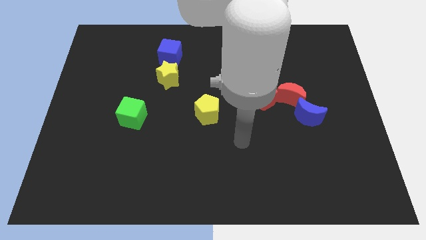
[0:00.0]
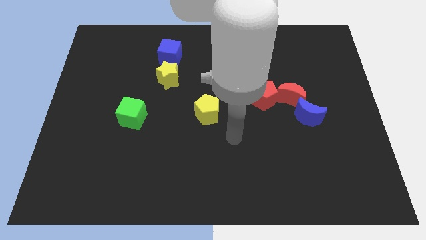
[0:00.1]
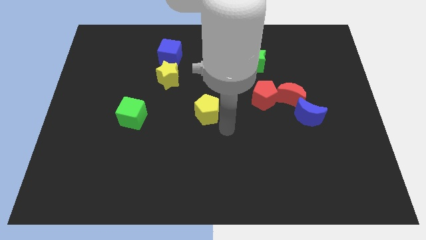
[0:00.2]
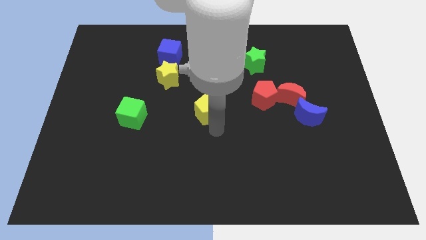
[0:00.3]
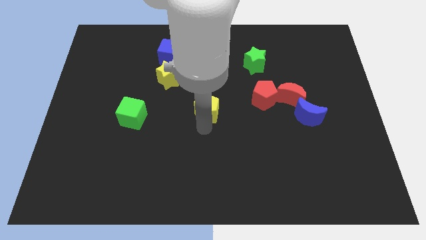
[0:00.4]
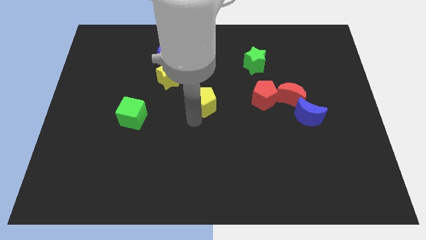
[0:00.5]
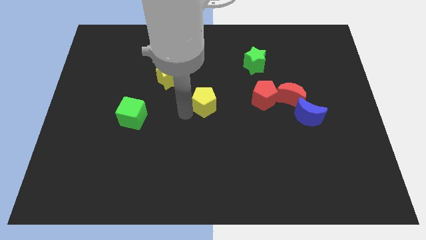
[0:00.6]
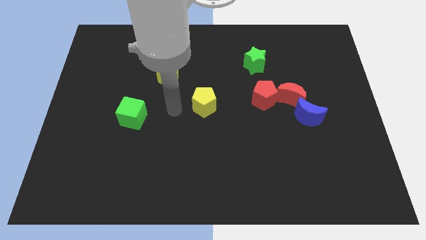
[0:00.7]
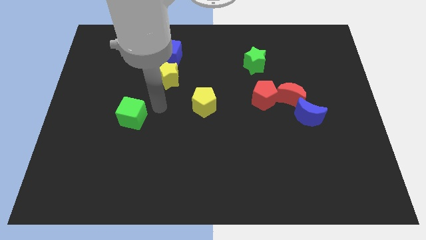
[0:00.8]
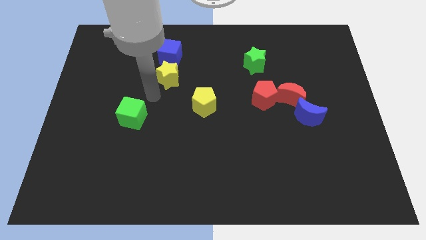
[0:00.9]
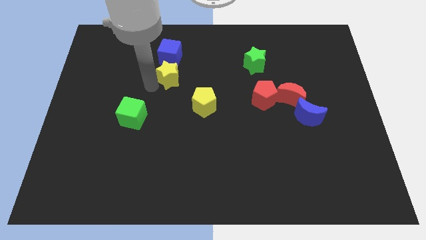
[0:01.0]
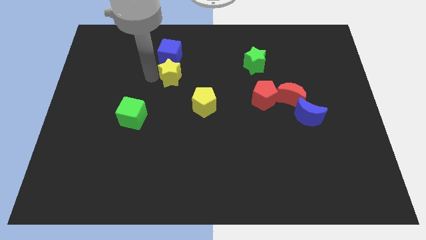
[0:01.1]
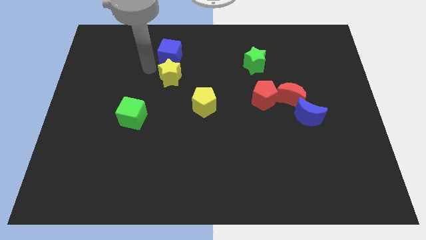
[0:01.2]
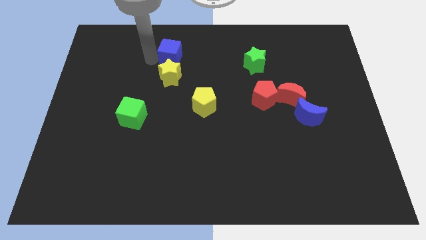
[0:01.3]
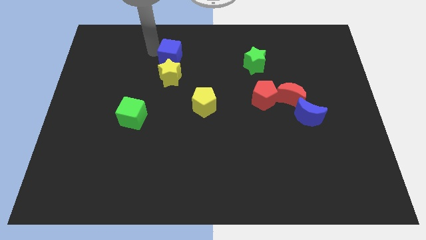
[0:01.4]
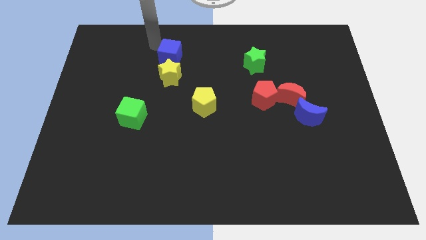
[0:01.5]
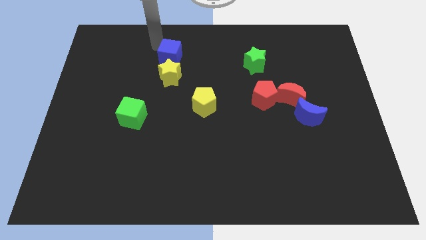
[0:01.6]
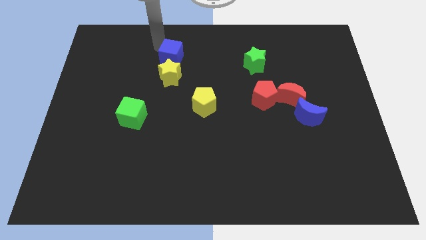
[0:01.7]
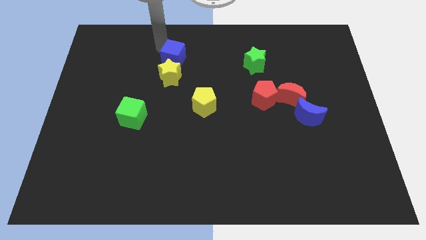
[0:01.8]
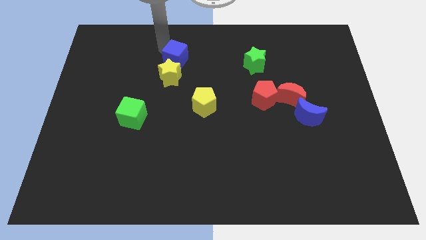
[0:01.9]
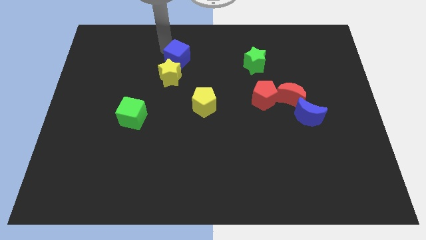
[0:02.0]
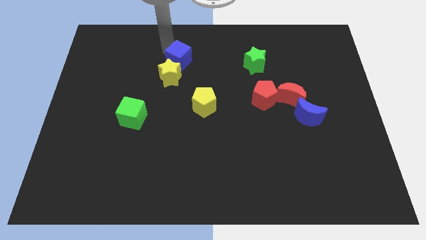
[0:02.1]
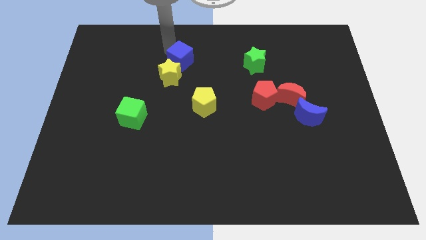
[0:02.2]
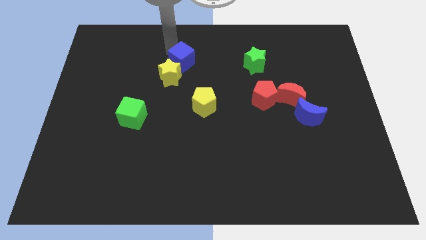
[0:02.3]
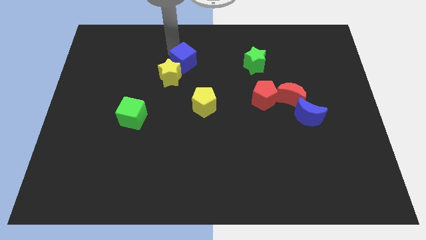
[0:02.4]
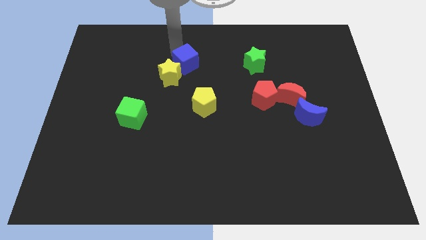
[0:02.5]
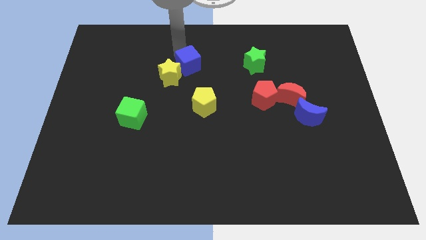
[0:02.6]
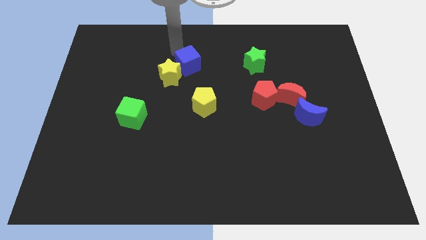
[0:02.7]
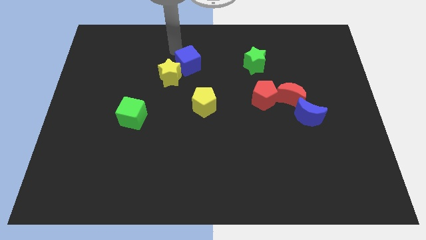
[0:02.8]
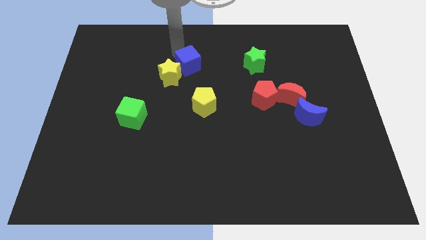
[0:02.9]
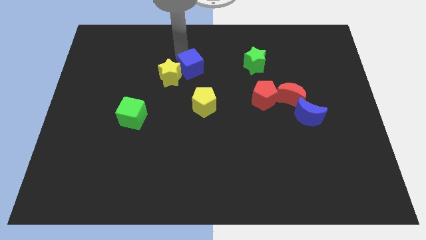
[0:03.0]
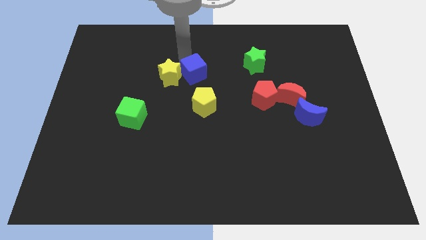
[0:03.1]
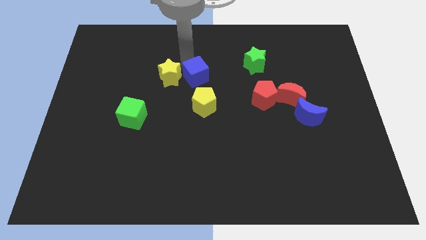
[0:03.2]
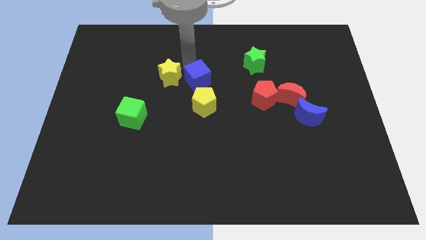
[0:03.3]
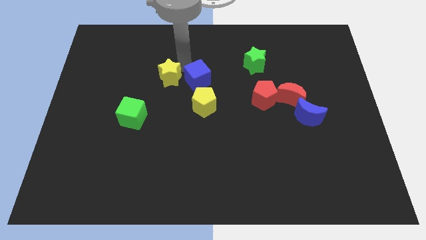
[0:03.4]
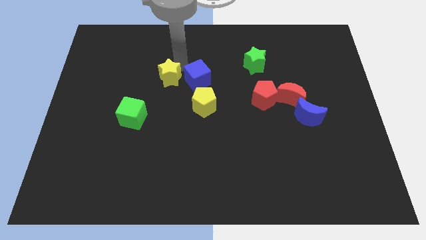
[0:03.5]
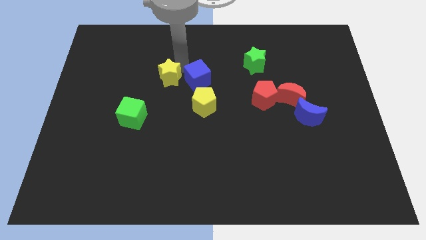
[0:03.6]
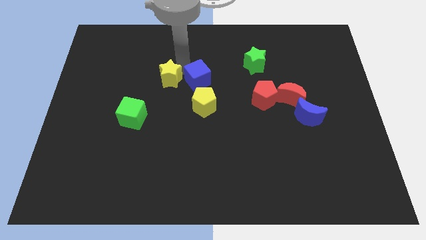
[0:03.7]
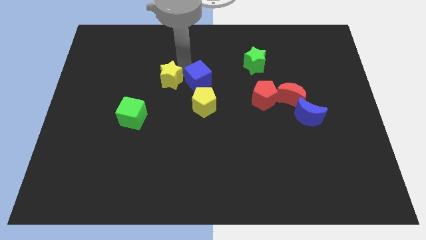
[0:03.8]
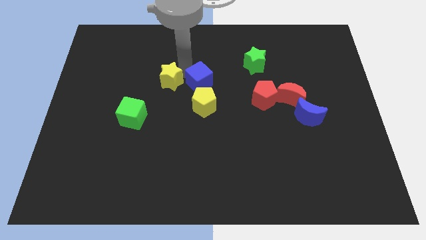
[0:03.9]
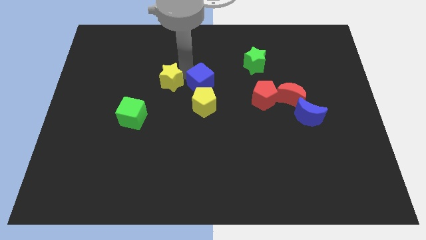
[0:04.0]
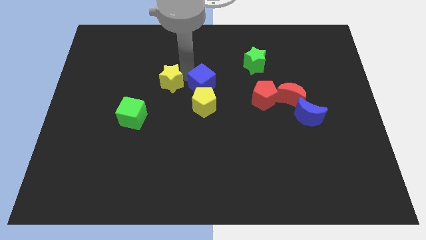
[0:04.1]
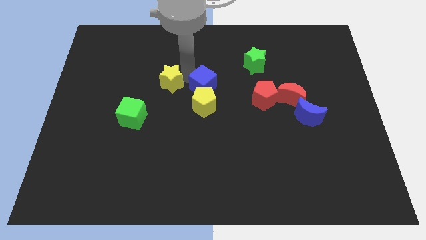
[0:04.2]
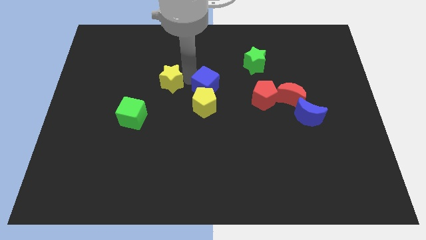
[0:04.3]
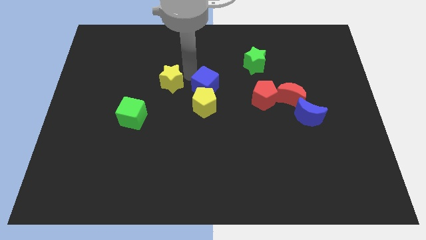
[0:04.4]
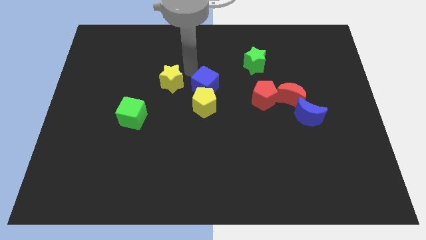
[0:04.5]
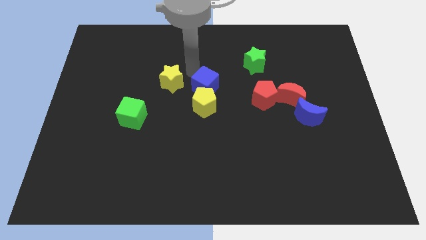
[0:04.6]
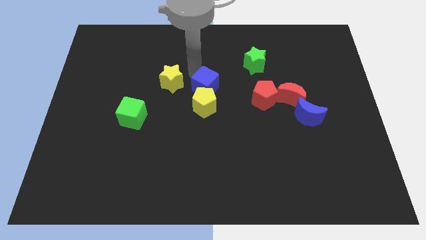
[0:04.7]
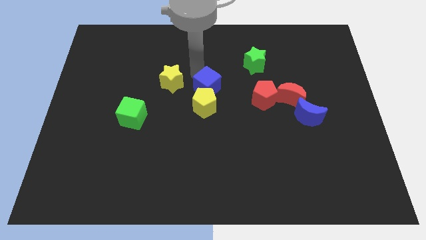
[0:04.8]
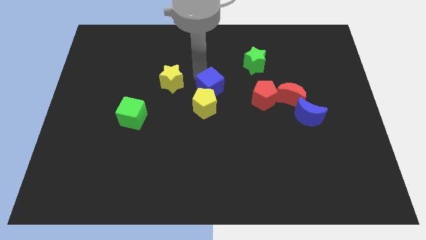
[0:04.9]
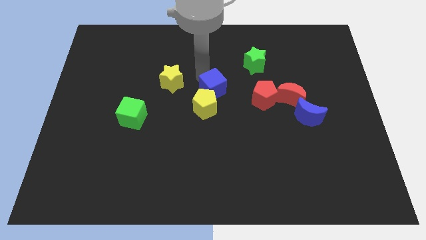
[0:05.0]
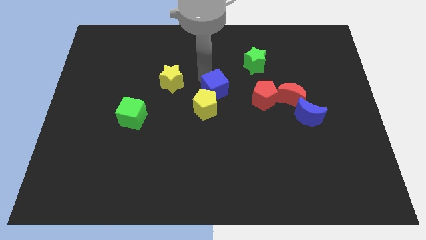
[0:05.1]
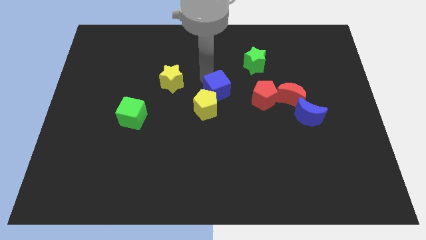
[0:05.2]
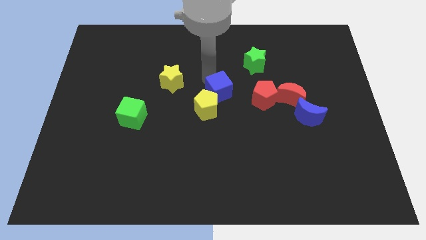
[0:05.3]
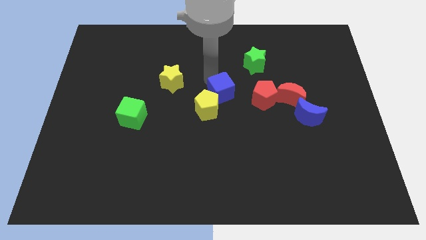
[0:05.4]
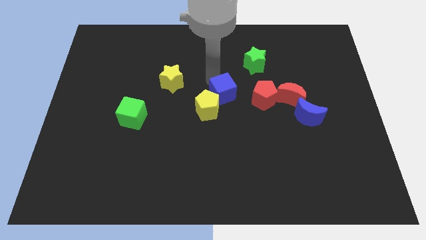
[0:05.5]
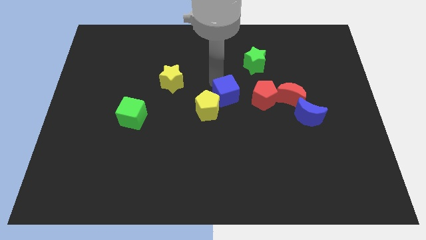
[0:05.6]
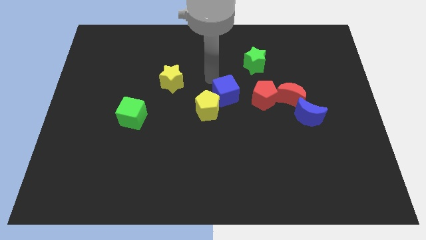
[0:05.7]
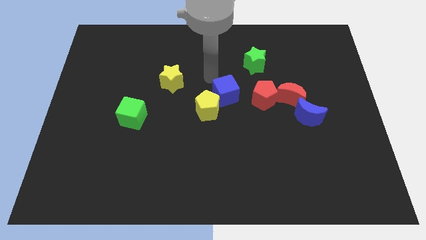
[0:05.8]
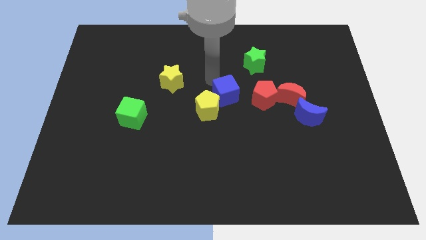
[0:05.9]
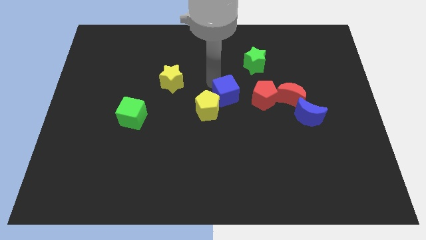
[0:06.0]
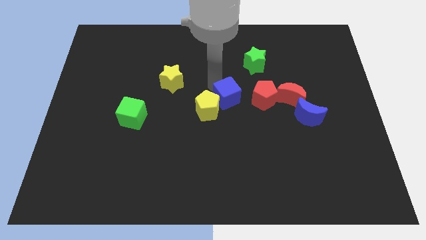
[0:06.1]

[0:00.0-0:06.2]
move the blue cube down and then to the right

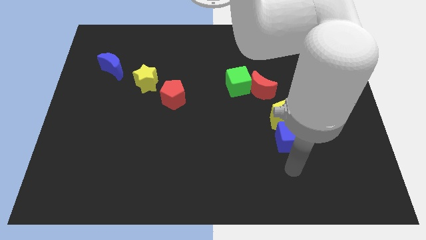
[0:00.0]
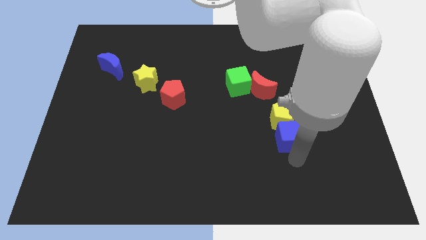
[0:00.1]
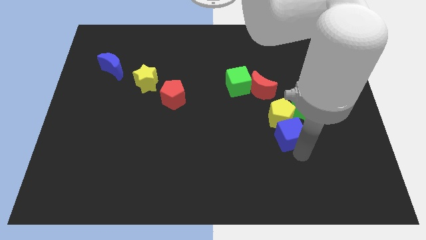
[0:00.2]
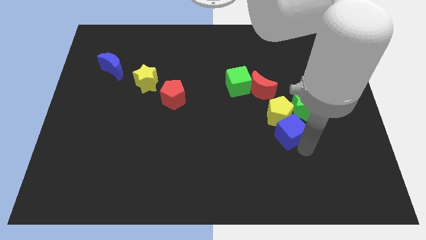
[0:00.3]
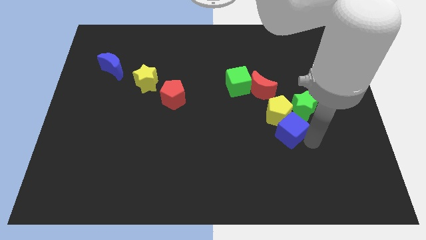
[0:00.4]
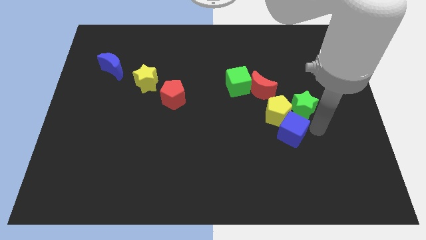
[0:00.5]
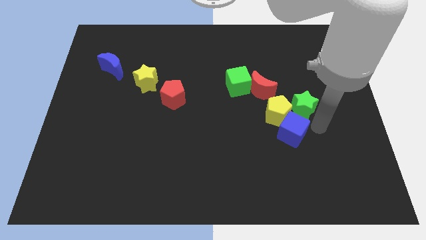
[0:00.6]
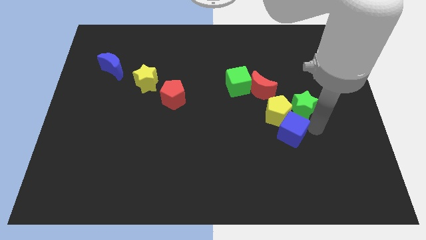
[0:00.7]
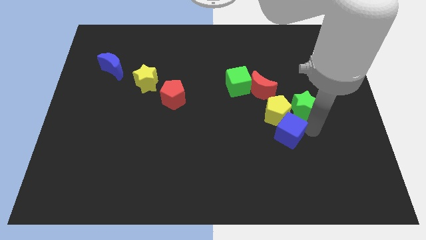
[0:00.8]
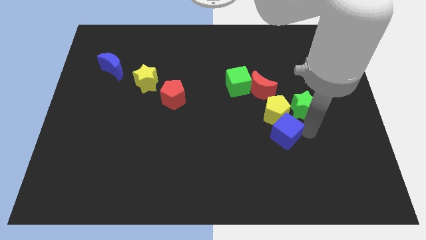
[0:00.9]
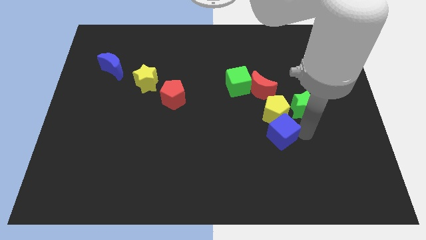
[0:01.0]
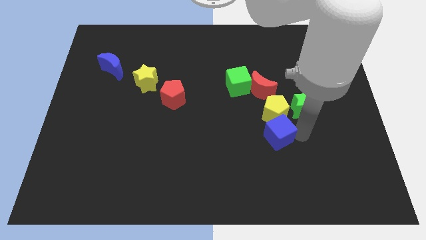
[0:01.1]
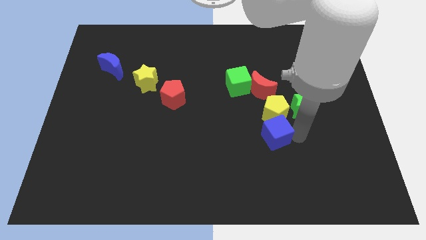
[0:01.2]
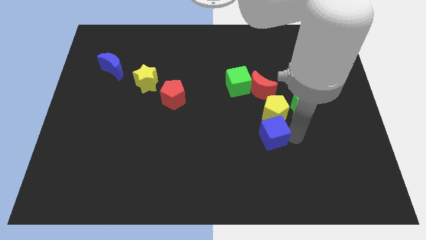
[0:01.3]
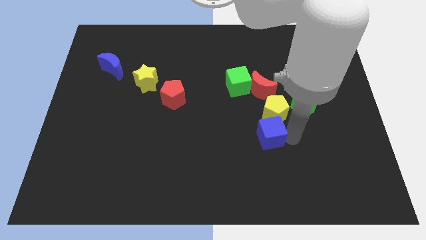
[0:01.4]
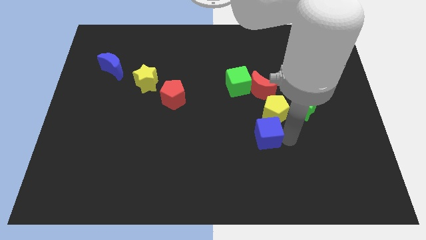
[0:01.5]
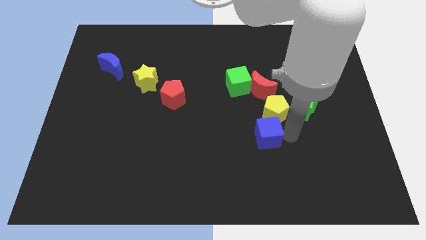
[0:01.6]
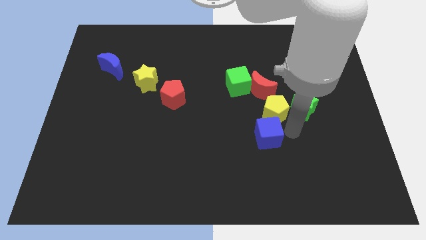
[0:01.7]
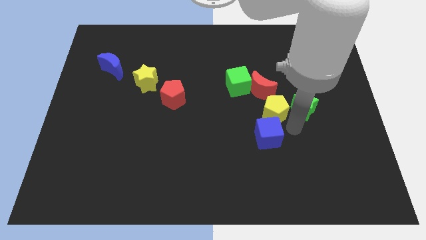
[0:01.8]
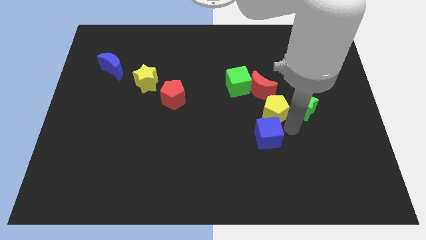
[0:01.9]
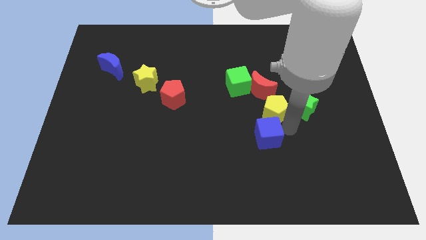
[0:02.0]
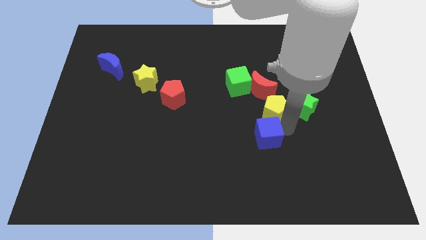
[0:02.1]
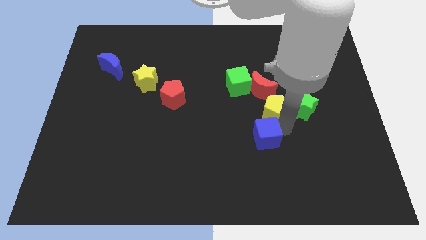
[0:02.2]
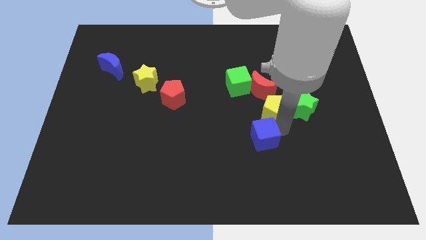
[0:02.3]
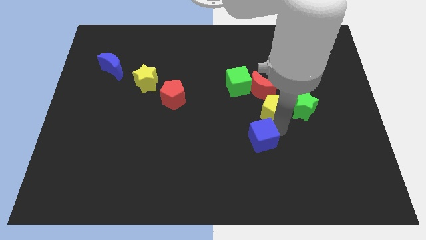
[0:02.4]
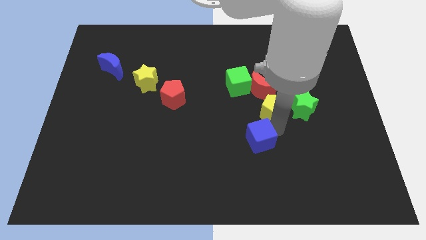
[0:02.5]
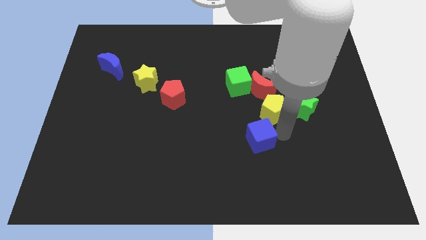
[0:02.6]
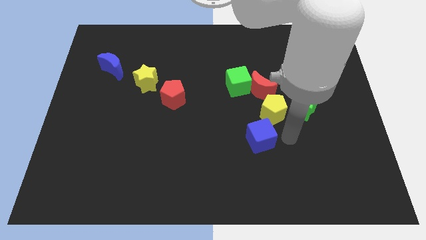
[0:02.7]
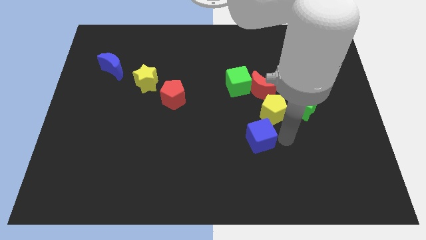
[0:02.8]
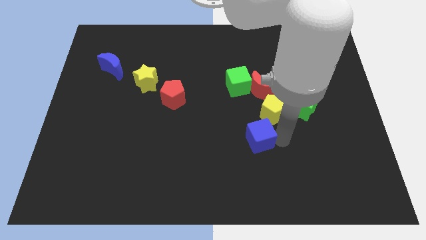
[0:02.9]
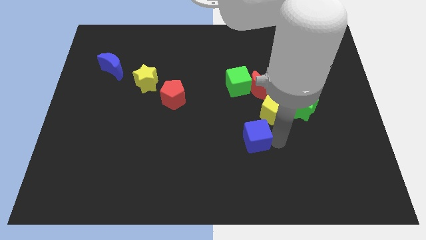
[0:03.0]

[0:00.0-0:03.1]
move the blue cube to the left a bit
